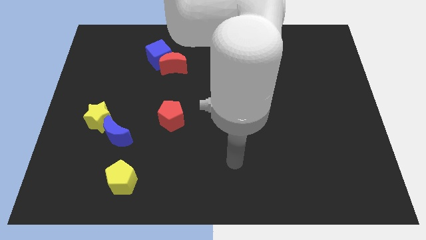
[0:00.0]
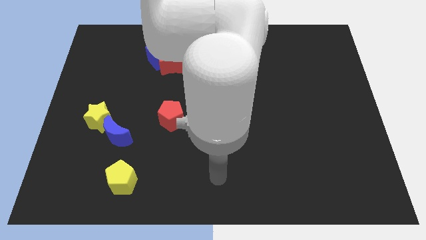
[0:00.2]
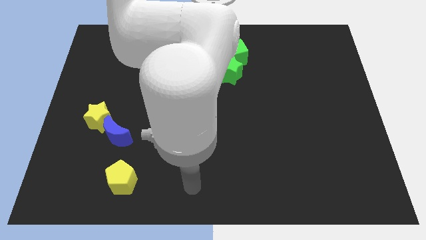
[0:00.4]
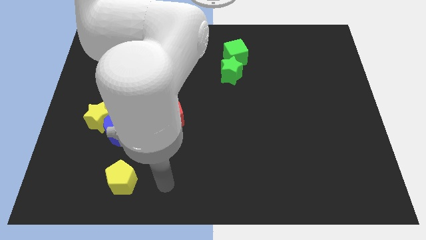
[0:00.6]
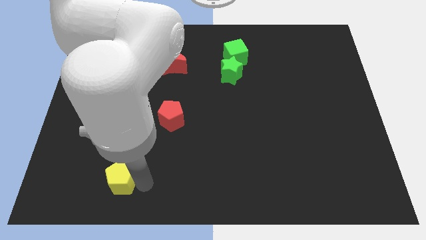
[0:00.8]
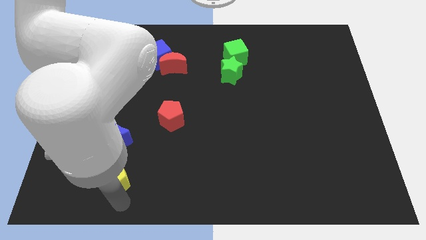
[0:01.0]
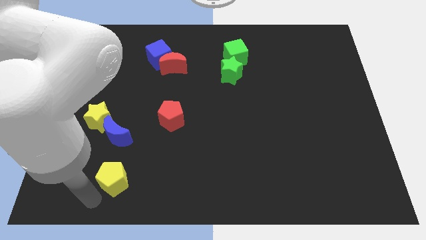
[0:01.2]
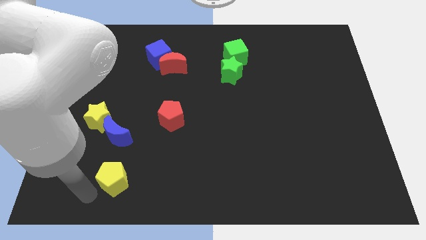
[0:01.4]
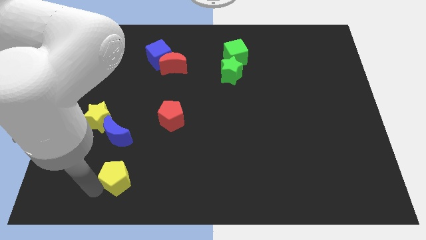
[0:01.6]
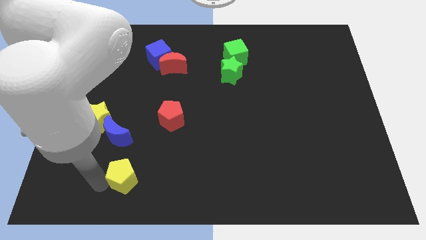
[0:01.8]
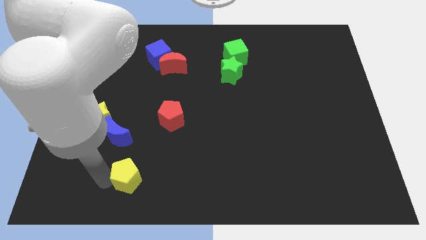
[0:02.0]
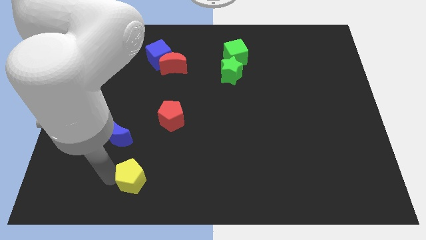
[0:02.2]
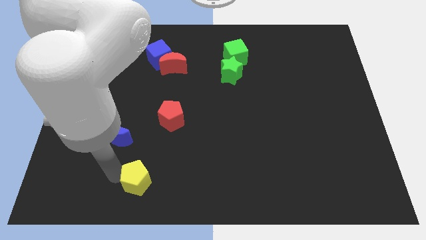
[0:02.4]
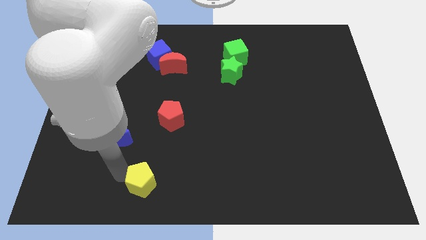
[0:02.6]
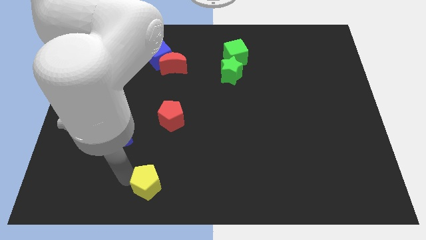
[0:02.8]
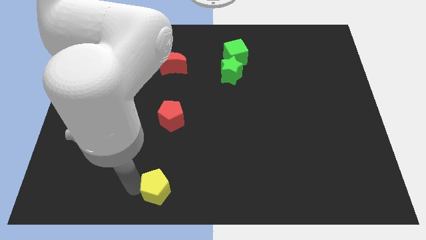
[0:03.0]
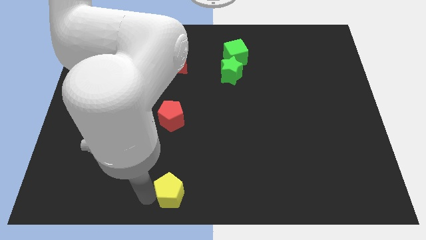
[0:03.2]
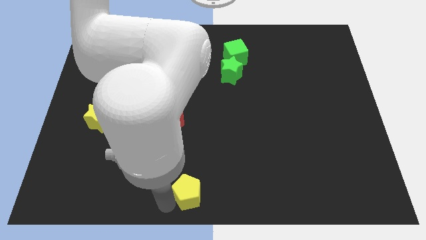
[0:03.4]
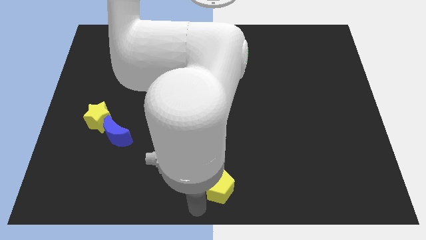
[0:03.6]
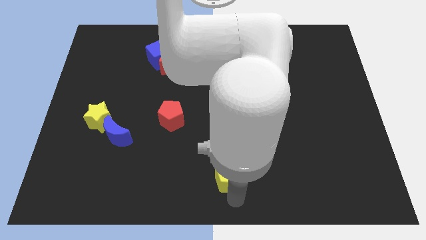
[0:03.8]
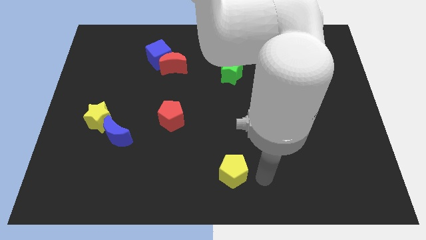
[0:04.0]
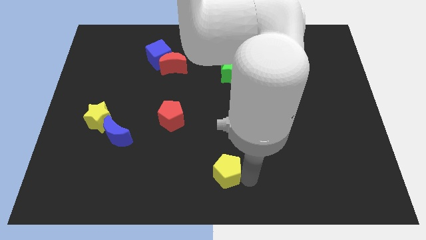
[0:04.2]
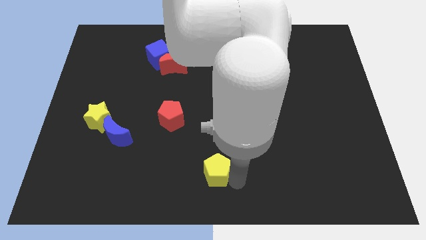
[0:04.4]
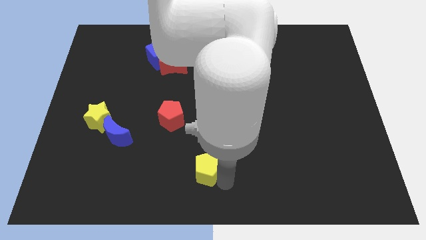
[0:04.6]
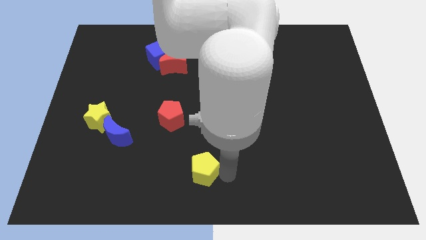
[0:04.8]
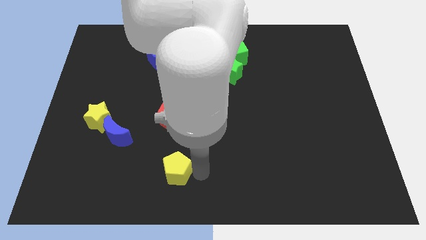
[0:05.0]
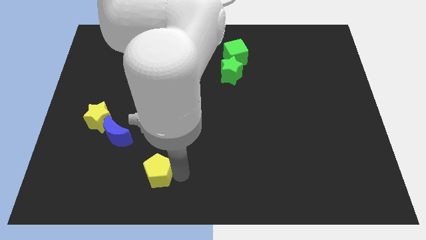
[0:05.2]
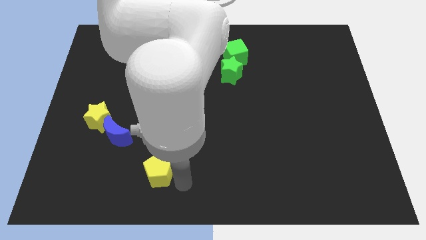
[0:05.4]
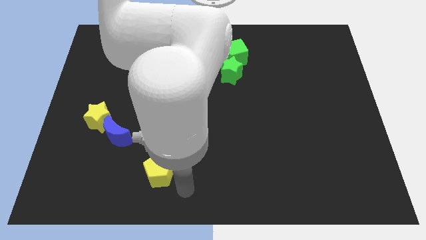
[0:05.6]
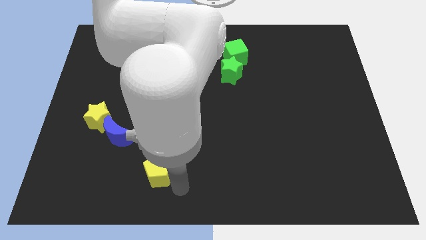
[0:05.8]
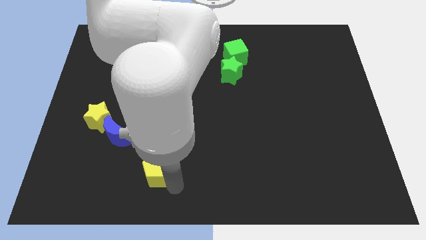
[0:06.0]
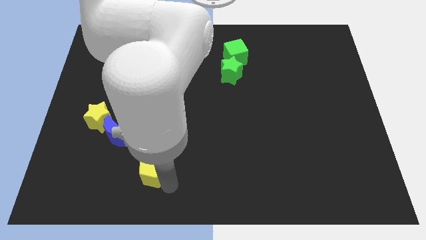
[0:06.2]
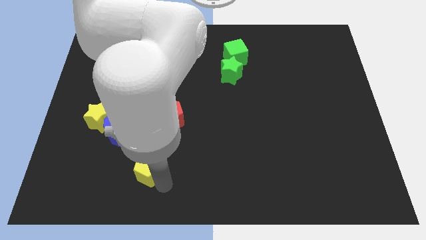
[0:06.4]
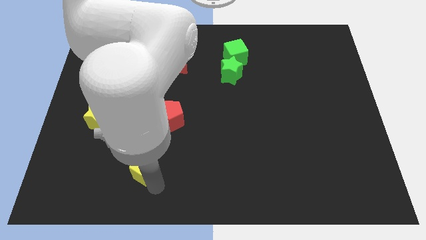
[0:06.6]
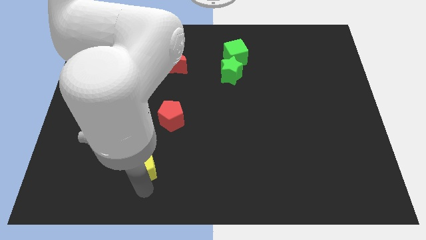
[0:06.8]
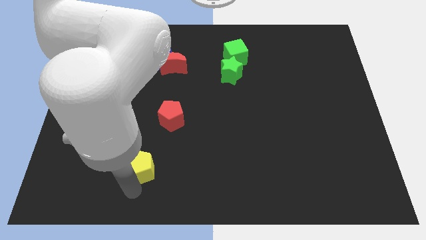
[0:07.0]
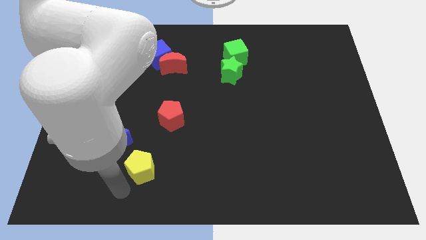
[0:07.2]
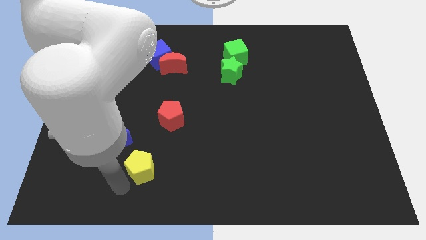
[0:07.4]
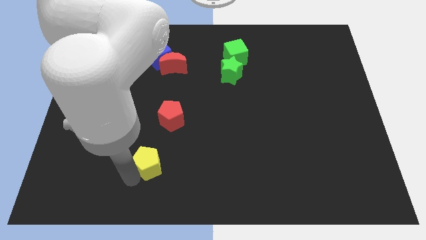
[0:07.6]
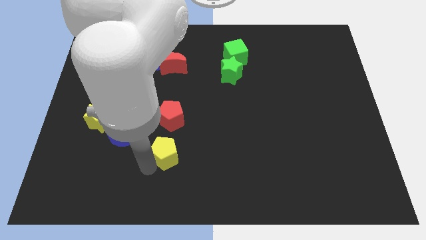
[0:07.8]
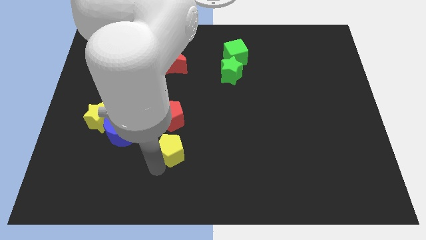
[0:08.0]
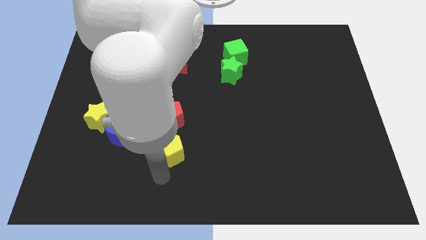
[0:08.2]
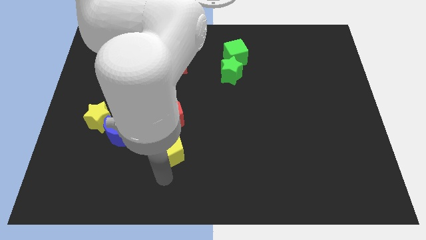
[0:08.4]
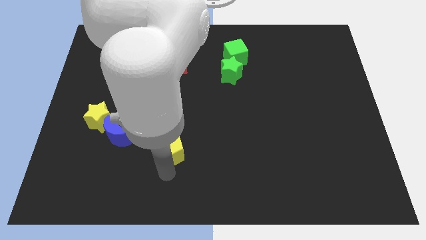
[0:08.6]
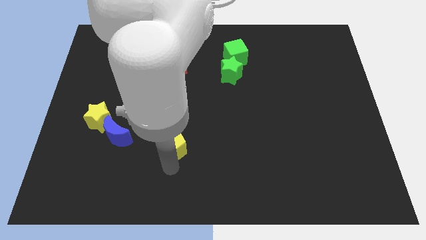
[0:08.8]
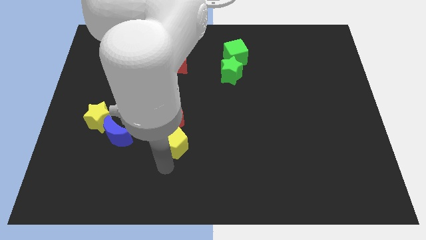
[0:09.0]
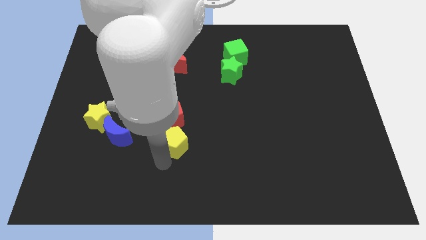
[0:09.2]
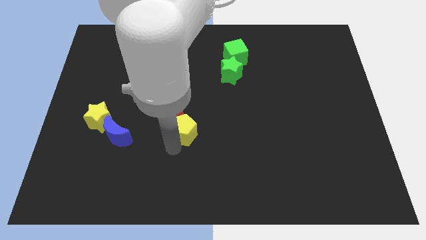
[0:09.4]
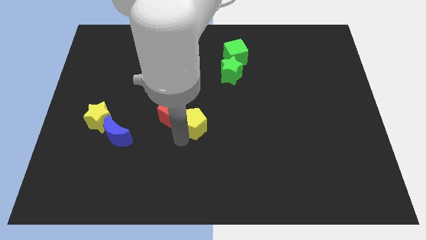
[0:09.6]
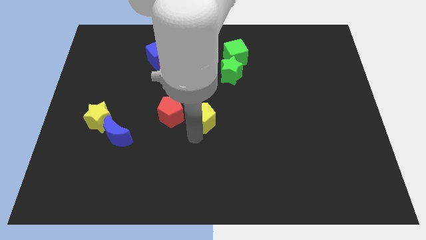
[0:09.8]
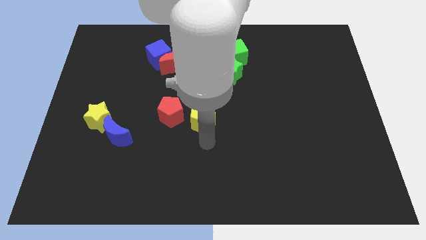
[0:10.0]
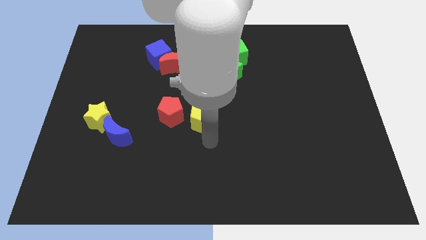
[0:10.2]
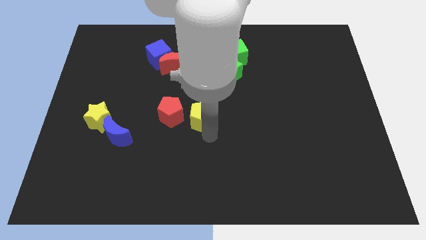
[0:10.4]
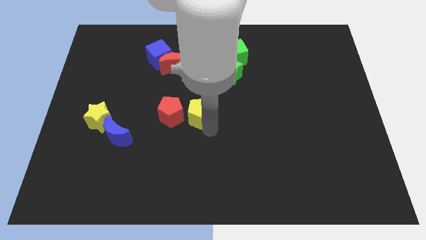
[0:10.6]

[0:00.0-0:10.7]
put the yellow pentagon to the top right of the red pentagon
